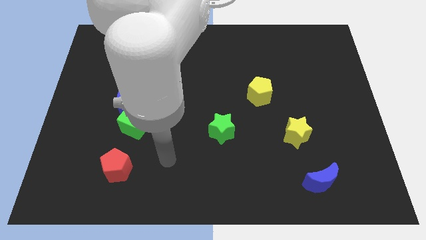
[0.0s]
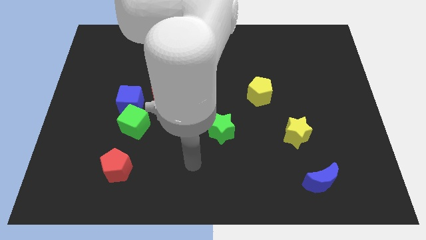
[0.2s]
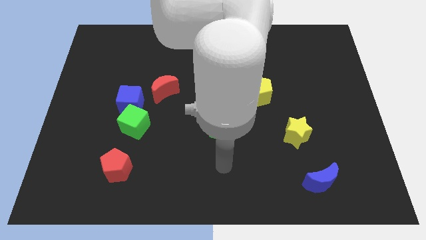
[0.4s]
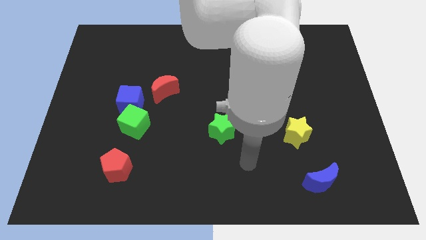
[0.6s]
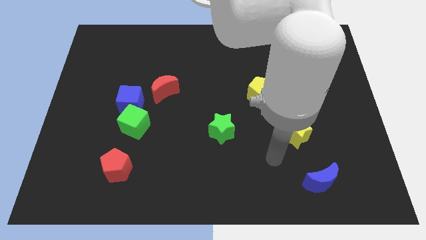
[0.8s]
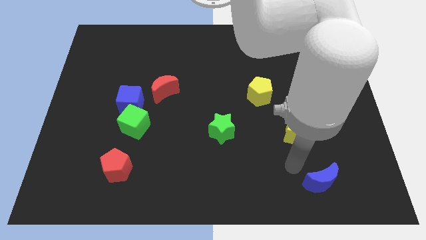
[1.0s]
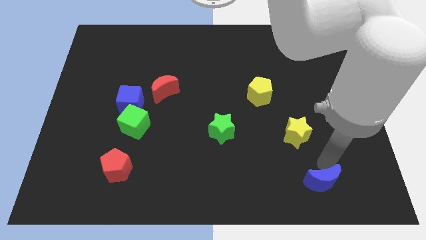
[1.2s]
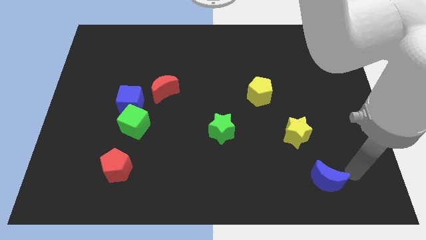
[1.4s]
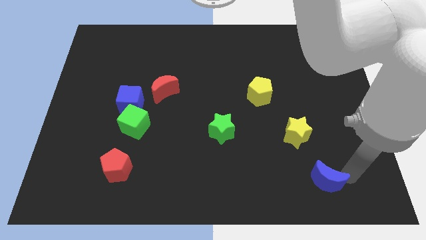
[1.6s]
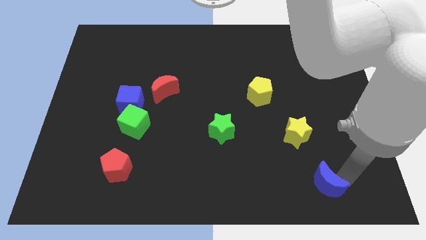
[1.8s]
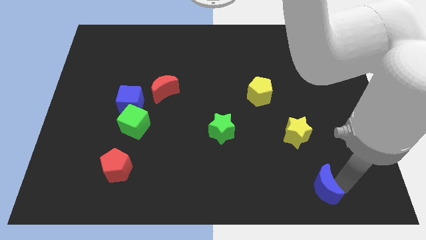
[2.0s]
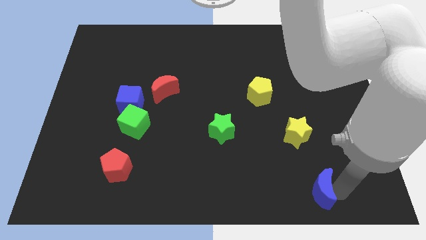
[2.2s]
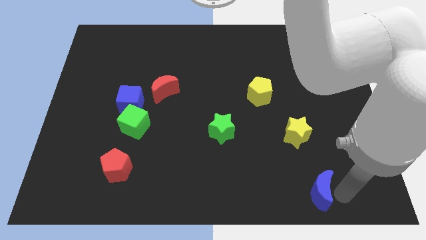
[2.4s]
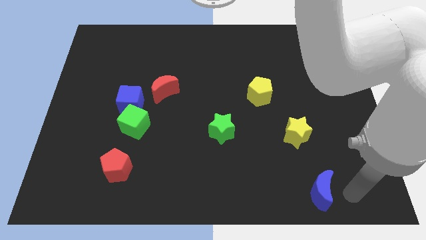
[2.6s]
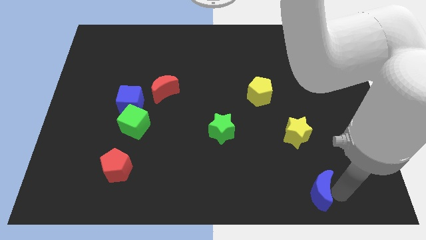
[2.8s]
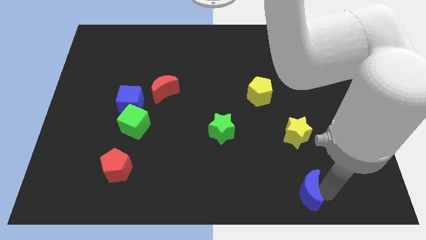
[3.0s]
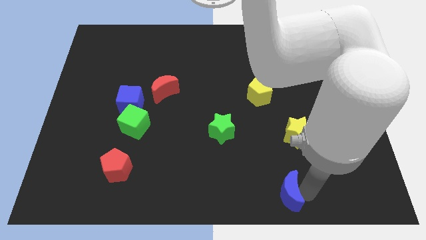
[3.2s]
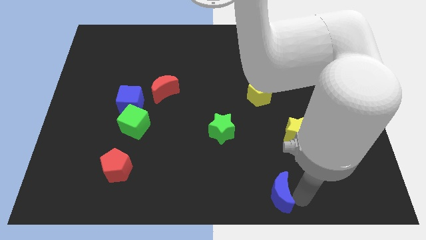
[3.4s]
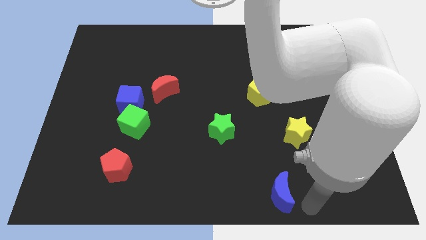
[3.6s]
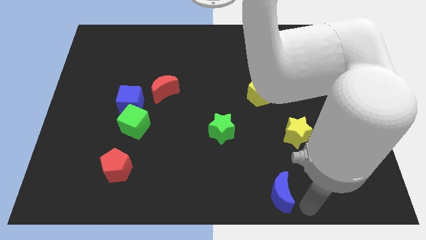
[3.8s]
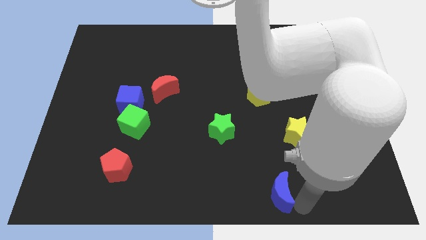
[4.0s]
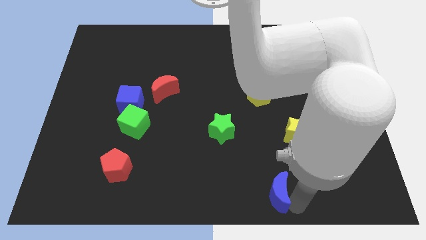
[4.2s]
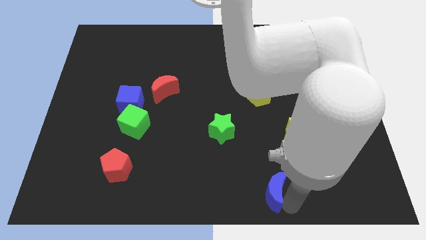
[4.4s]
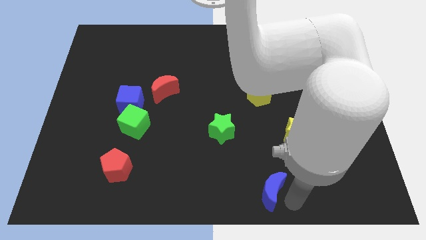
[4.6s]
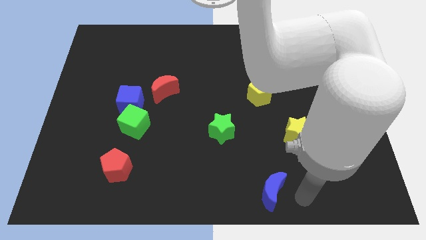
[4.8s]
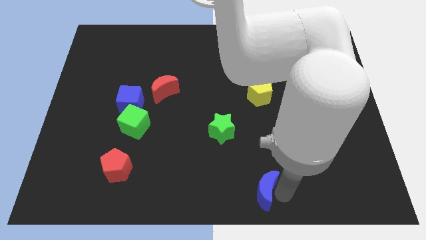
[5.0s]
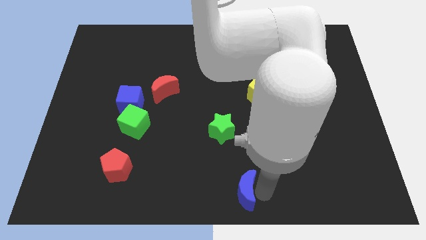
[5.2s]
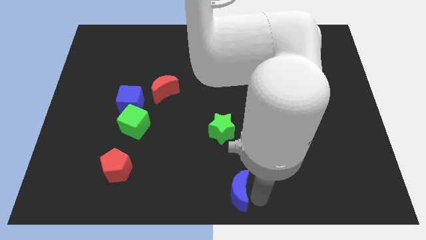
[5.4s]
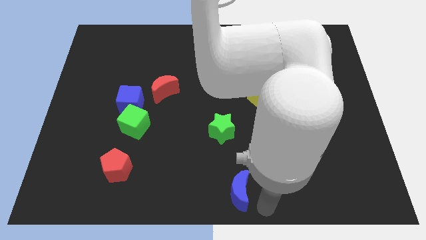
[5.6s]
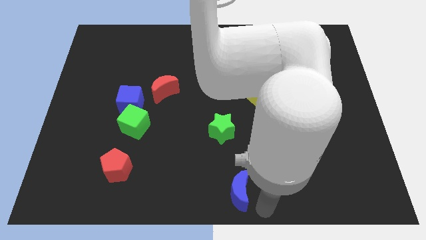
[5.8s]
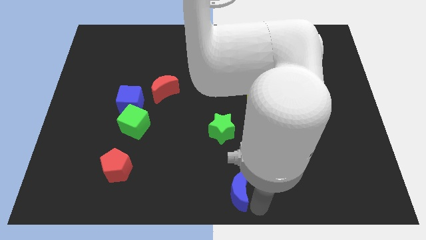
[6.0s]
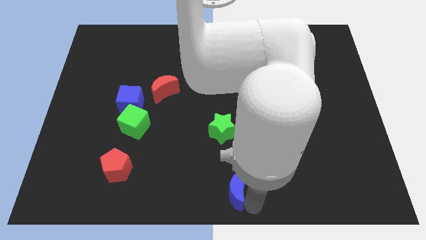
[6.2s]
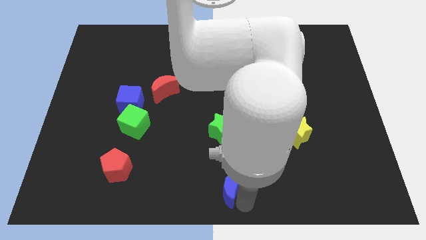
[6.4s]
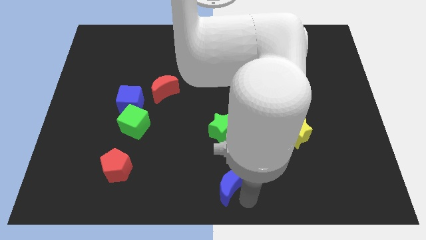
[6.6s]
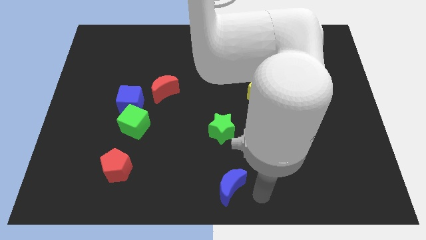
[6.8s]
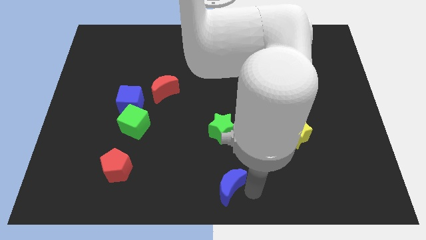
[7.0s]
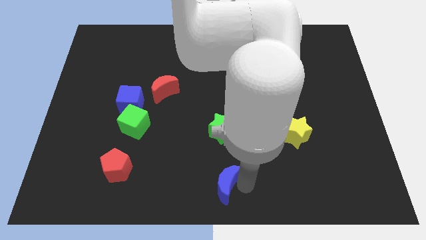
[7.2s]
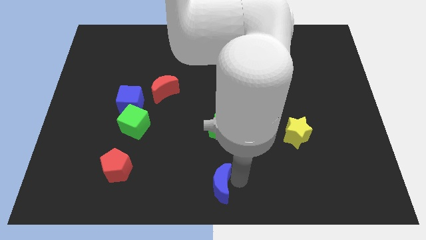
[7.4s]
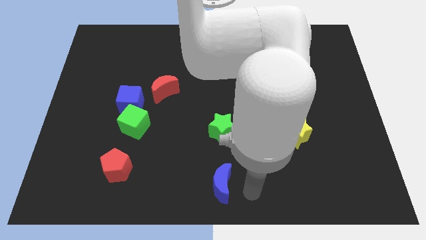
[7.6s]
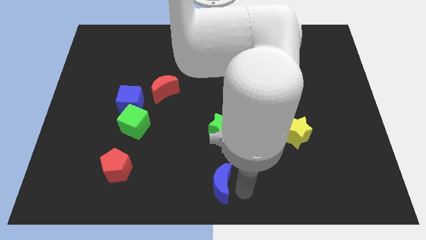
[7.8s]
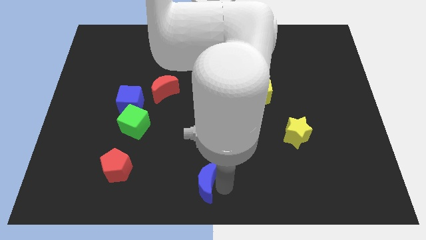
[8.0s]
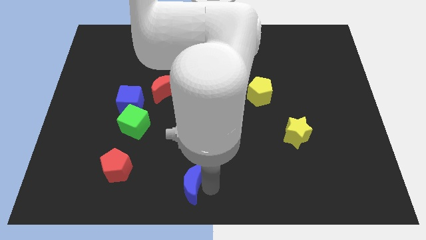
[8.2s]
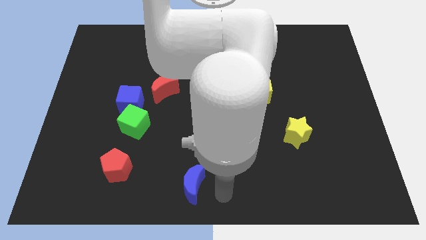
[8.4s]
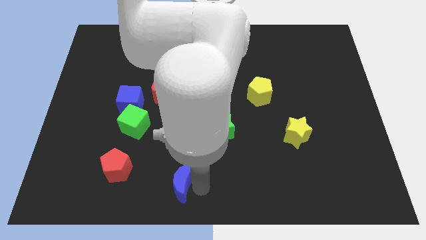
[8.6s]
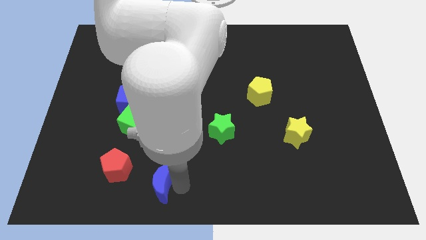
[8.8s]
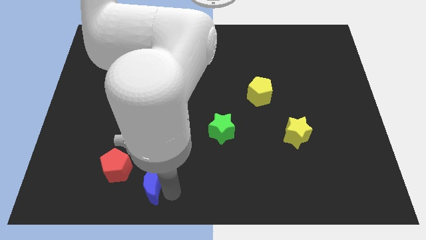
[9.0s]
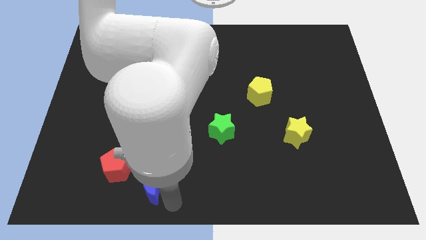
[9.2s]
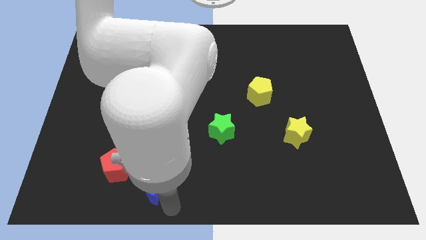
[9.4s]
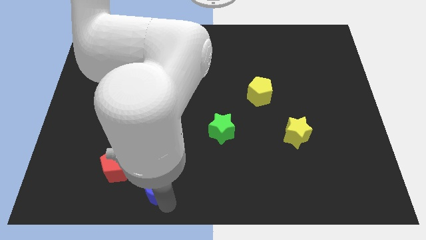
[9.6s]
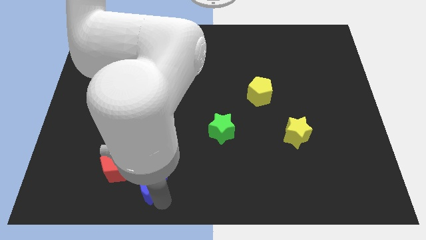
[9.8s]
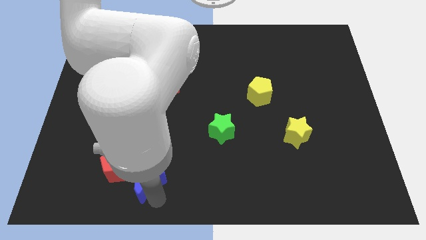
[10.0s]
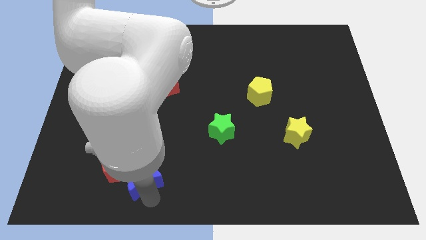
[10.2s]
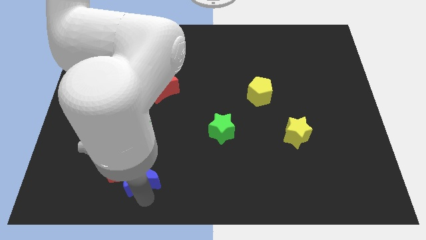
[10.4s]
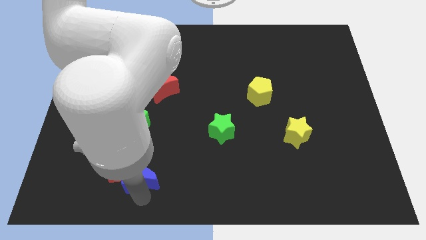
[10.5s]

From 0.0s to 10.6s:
slide the blue moon close to the red pentagon

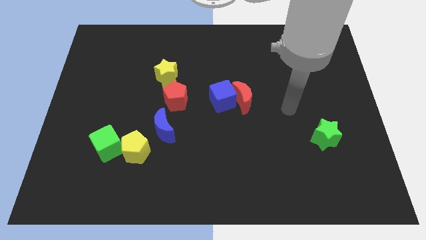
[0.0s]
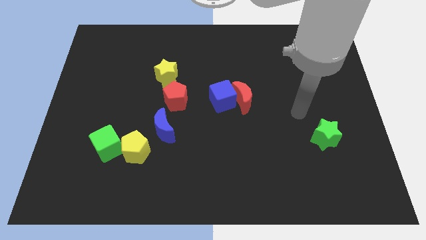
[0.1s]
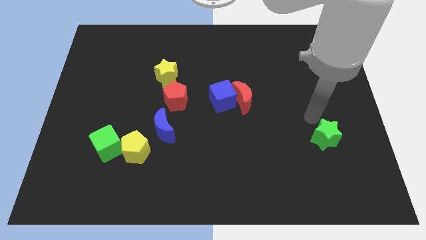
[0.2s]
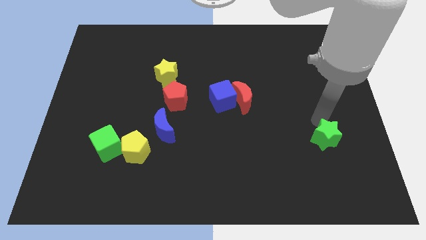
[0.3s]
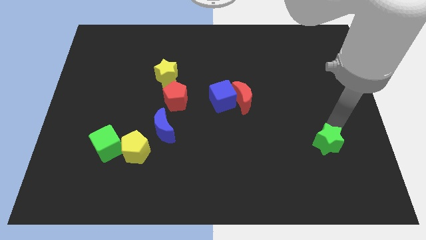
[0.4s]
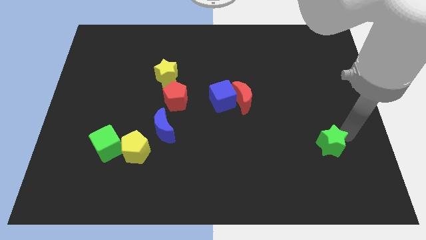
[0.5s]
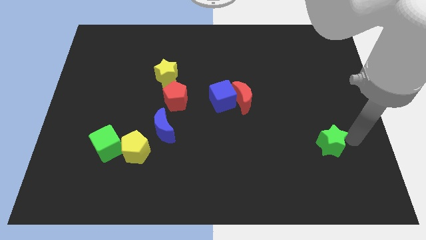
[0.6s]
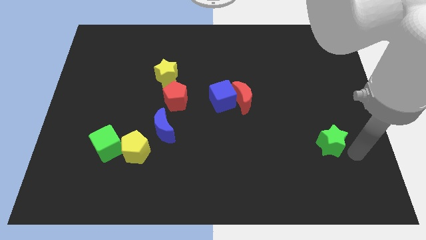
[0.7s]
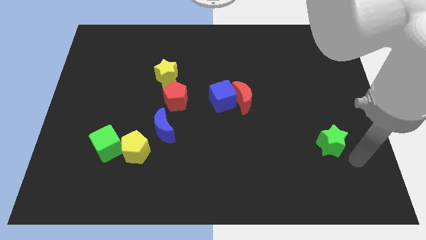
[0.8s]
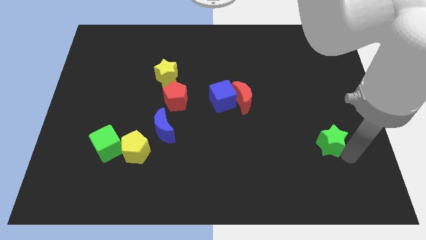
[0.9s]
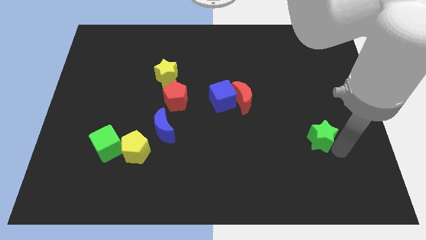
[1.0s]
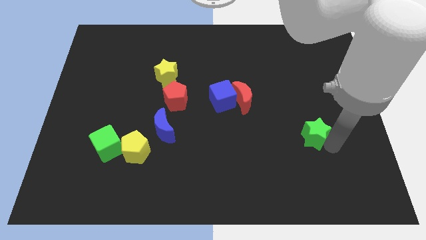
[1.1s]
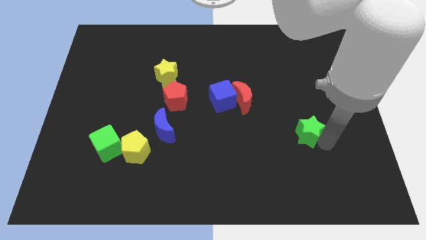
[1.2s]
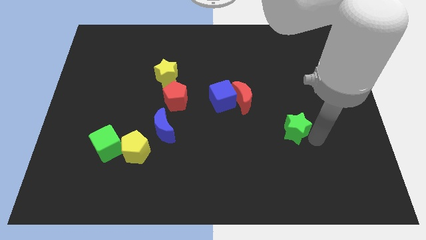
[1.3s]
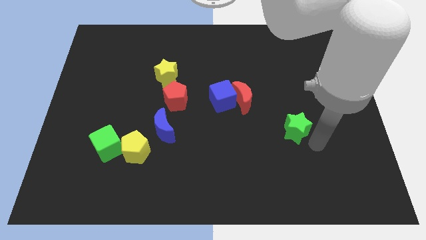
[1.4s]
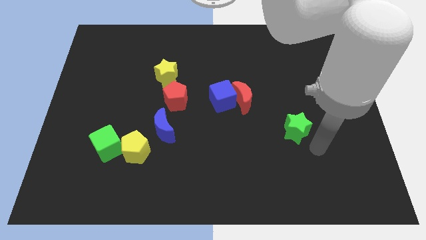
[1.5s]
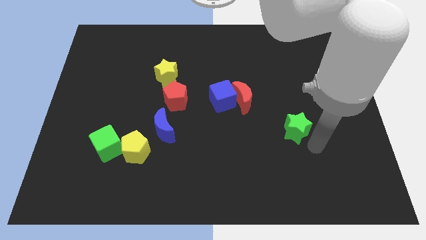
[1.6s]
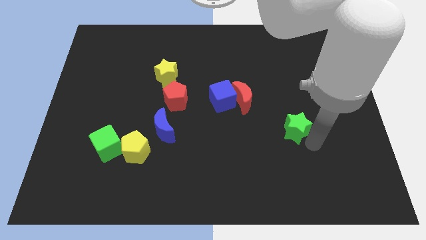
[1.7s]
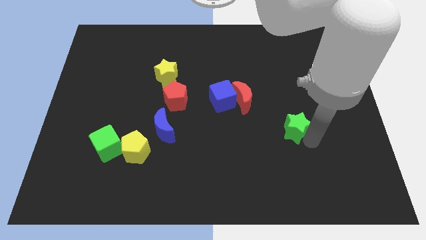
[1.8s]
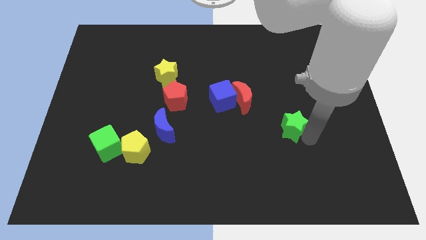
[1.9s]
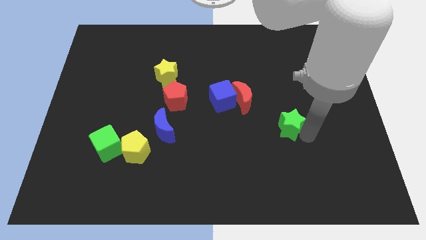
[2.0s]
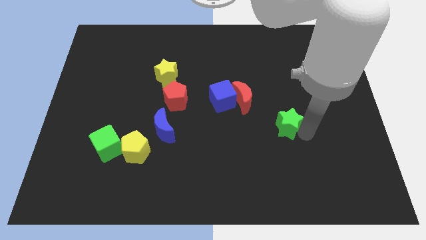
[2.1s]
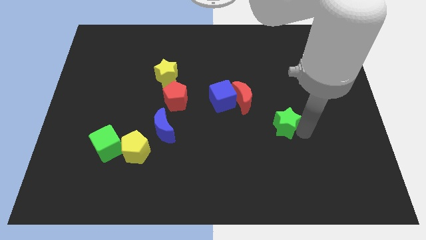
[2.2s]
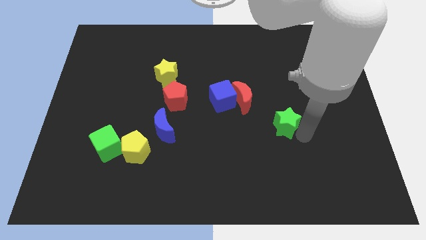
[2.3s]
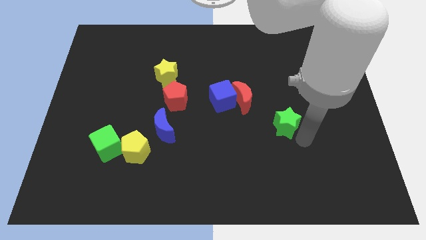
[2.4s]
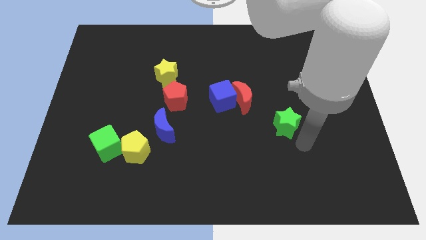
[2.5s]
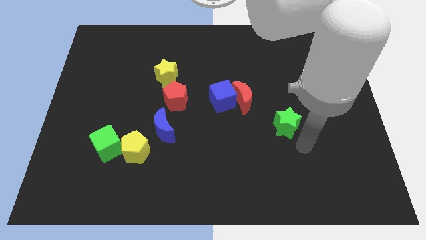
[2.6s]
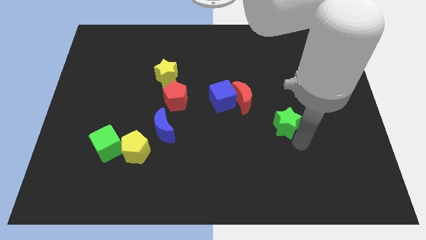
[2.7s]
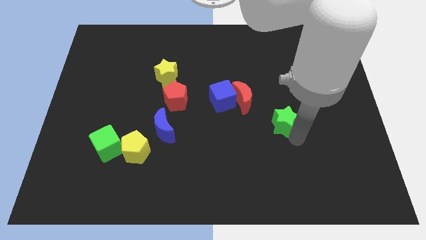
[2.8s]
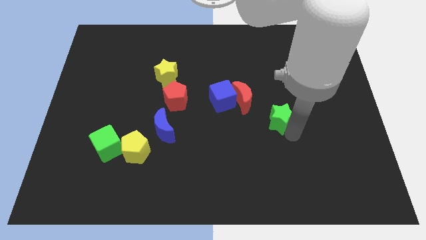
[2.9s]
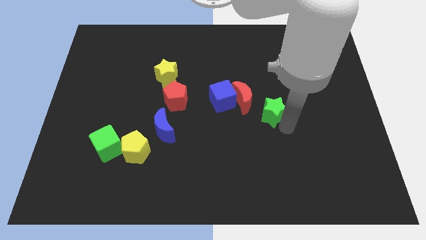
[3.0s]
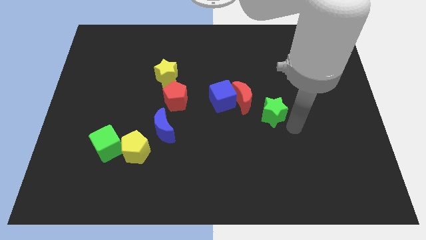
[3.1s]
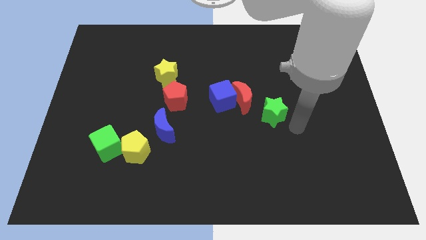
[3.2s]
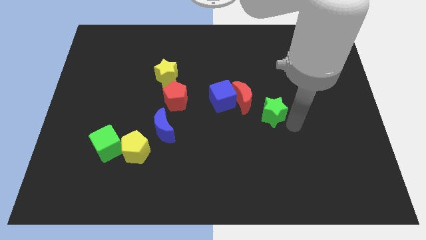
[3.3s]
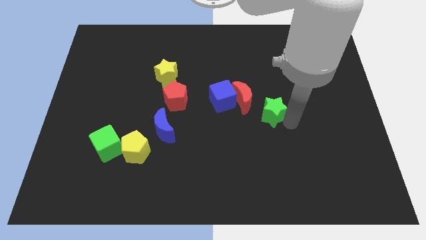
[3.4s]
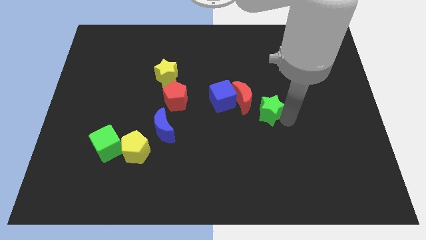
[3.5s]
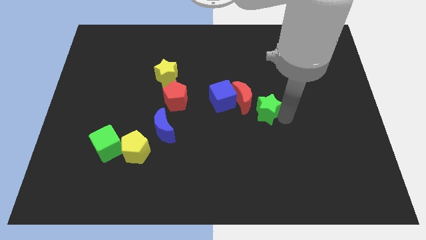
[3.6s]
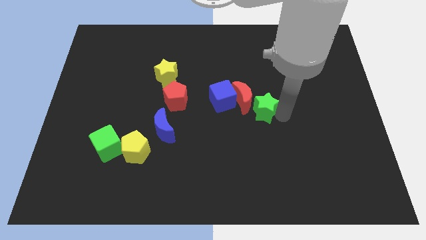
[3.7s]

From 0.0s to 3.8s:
push the green star close to the red moon
